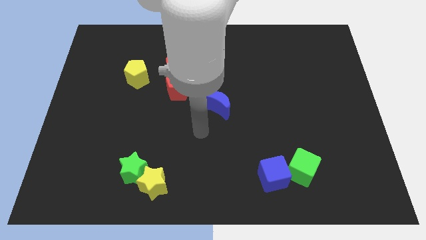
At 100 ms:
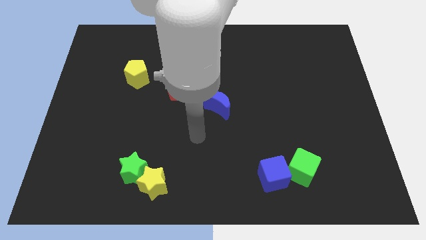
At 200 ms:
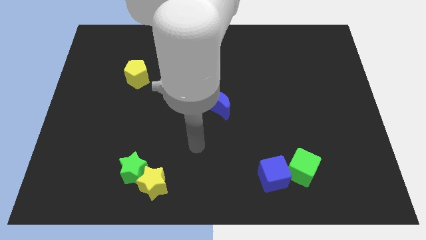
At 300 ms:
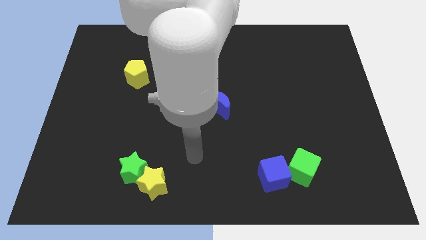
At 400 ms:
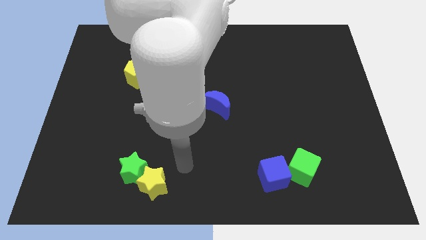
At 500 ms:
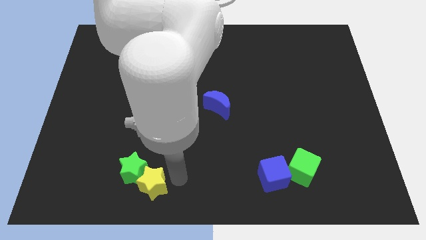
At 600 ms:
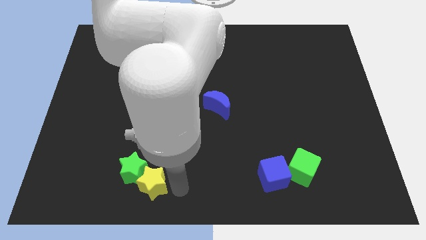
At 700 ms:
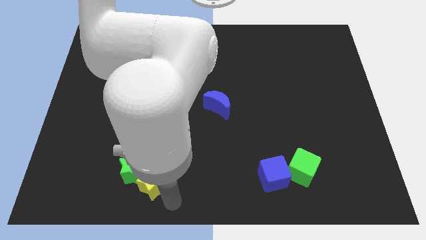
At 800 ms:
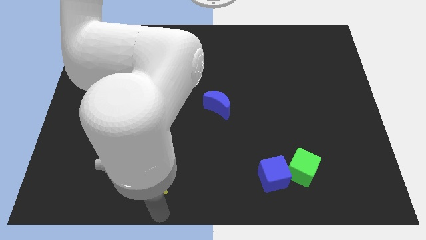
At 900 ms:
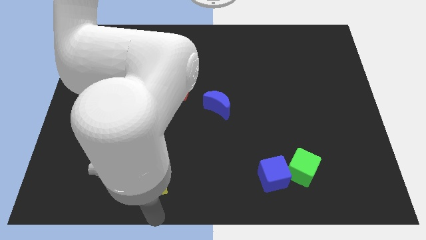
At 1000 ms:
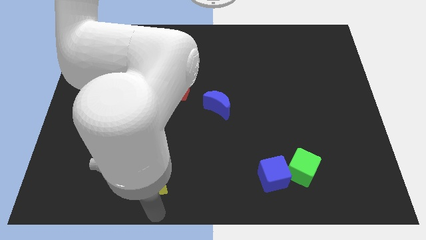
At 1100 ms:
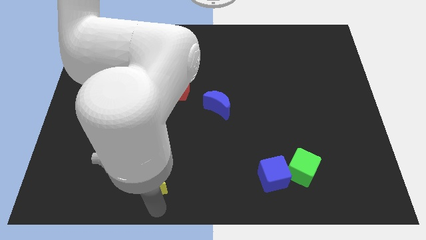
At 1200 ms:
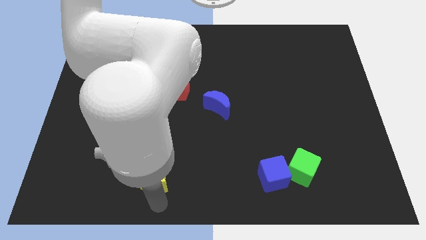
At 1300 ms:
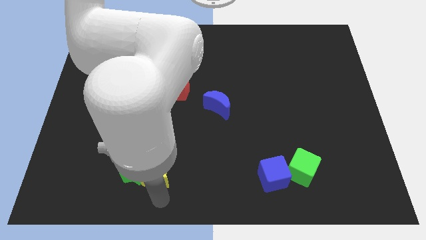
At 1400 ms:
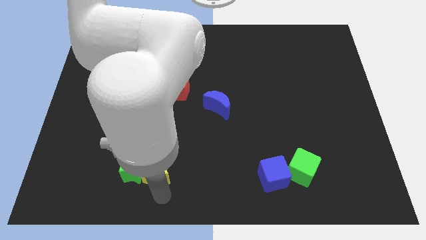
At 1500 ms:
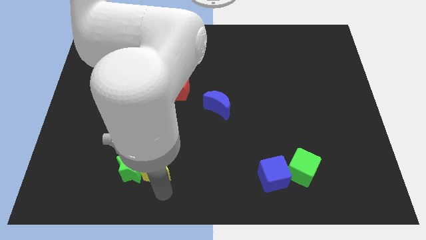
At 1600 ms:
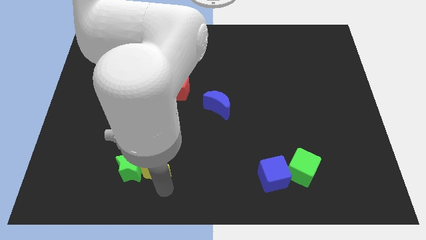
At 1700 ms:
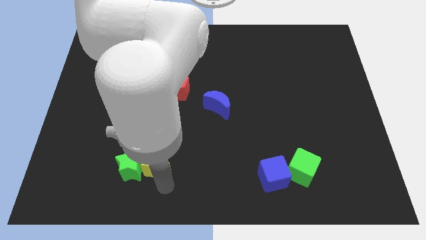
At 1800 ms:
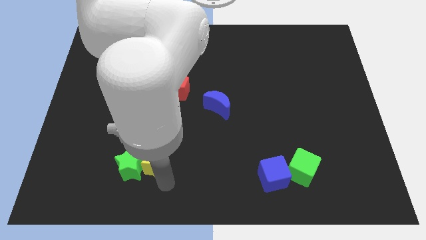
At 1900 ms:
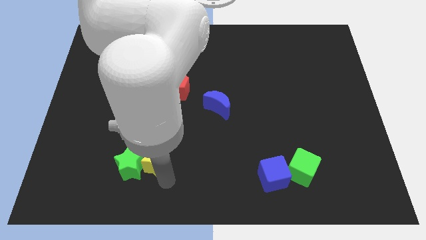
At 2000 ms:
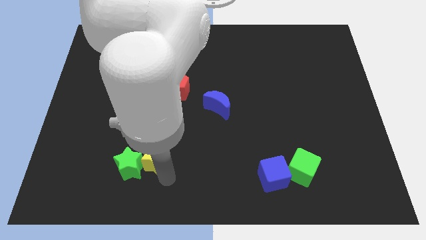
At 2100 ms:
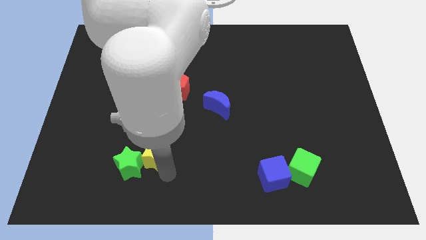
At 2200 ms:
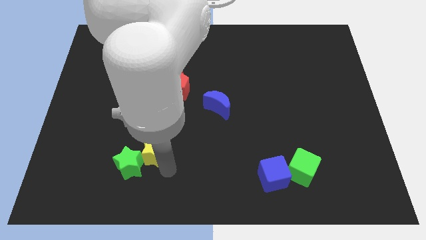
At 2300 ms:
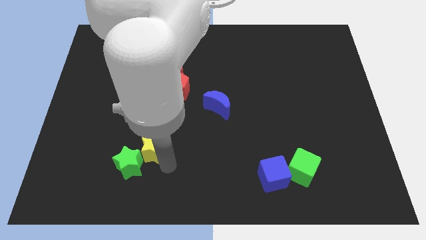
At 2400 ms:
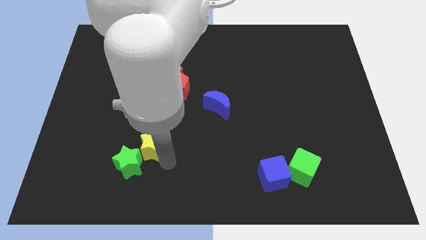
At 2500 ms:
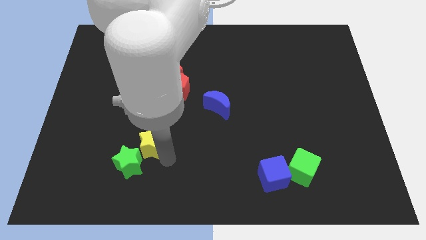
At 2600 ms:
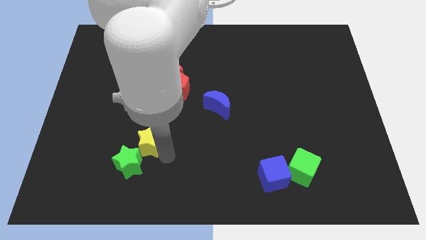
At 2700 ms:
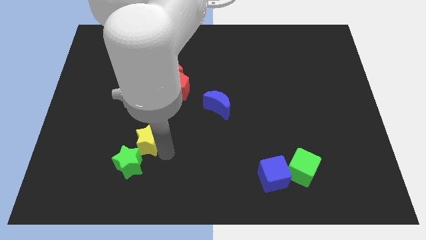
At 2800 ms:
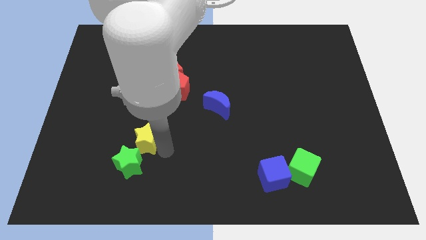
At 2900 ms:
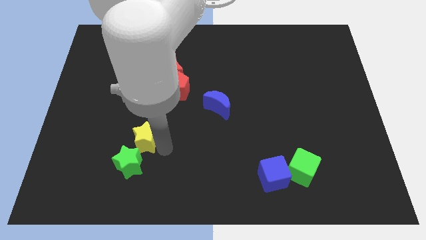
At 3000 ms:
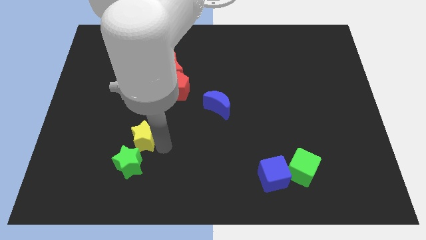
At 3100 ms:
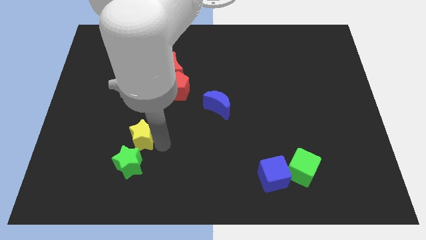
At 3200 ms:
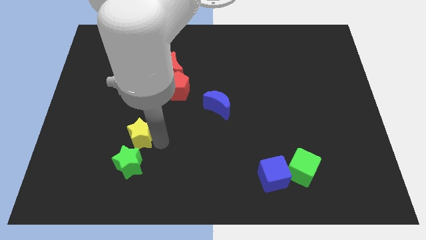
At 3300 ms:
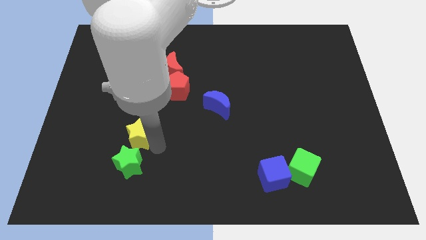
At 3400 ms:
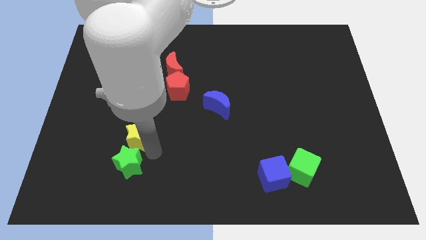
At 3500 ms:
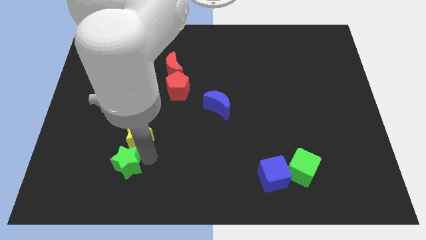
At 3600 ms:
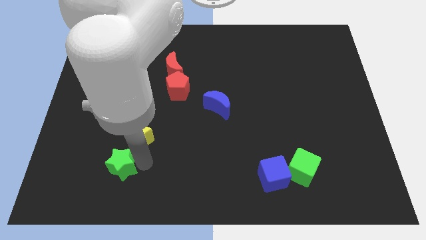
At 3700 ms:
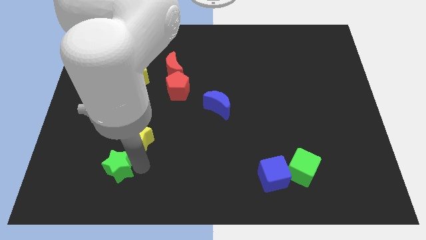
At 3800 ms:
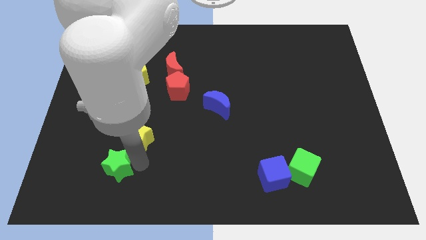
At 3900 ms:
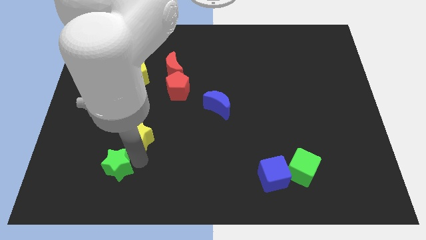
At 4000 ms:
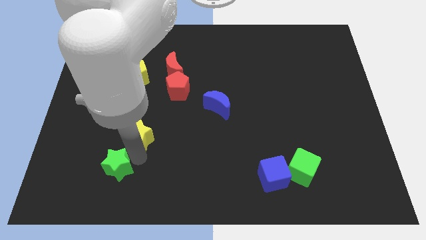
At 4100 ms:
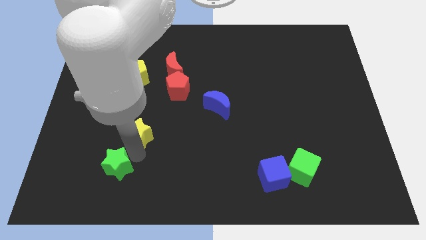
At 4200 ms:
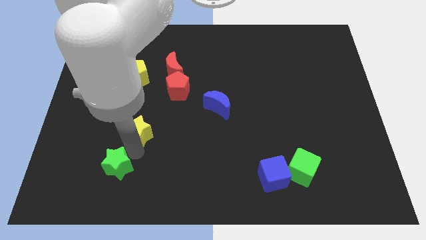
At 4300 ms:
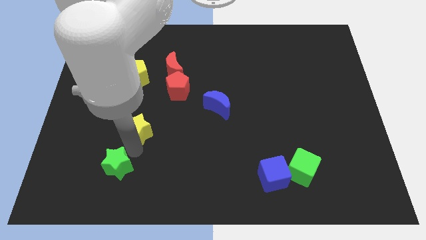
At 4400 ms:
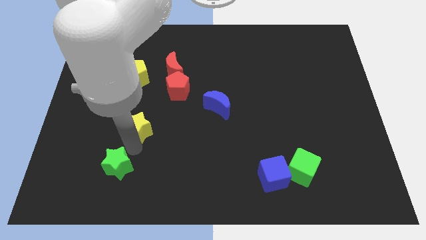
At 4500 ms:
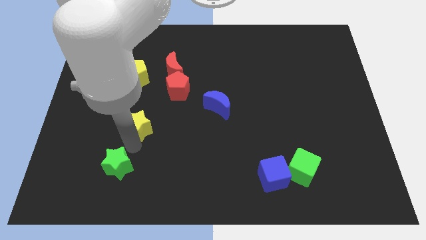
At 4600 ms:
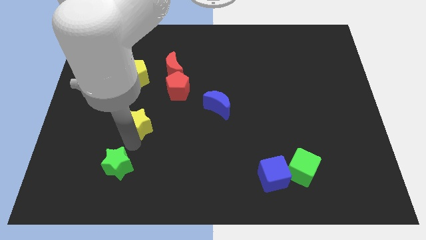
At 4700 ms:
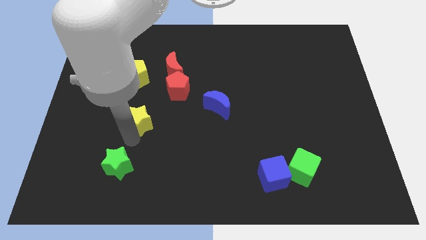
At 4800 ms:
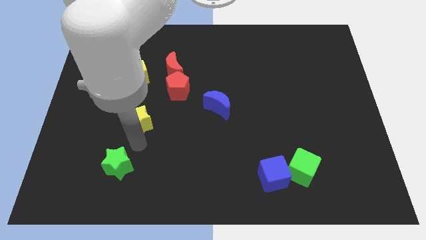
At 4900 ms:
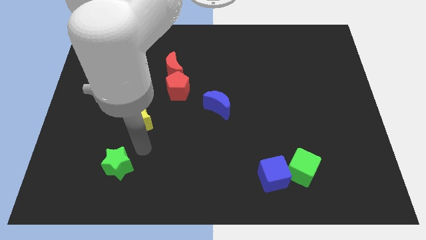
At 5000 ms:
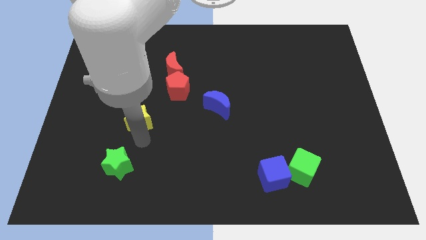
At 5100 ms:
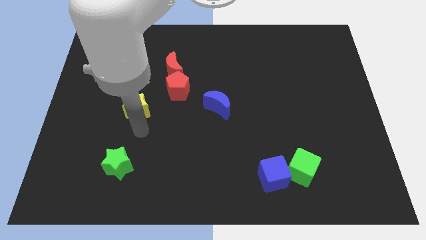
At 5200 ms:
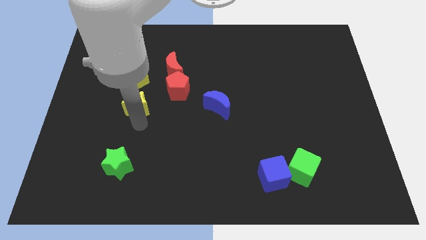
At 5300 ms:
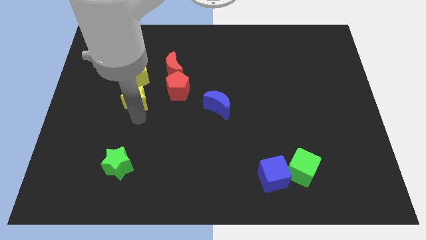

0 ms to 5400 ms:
slide the yellow star to the left of the red pentagon

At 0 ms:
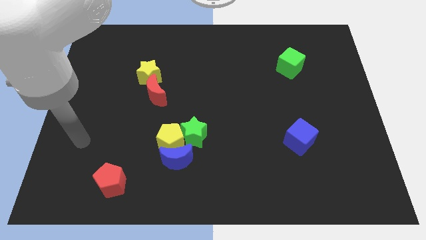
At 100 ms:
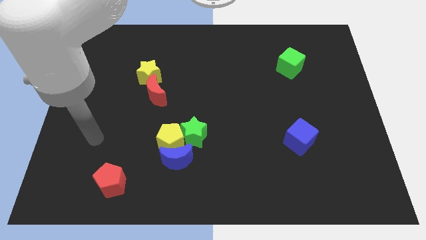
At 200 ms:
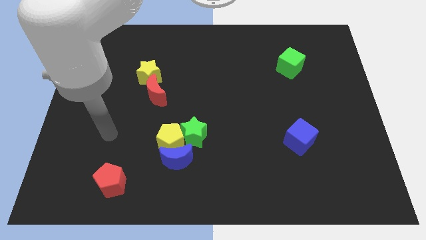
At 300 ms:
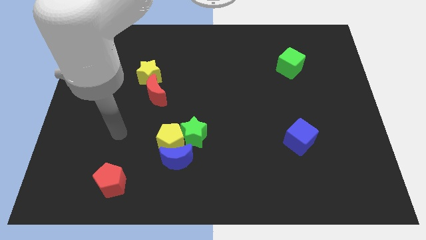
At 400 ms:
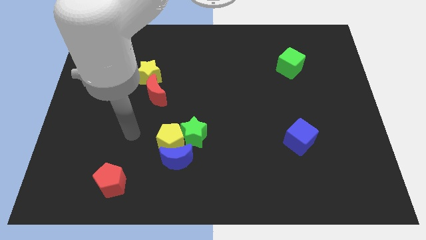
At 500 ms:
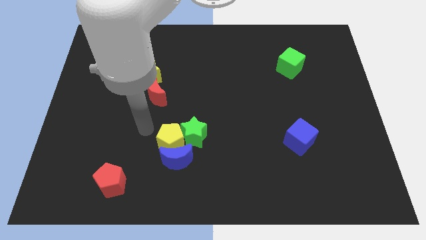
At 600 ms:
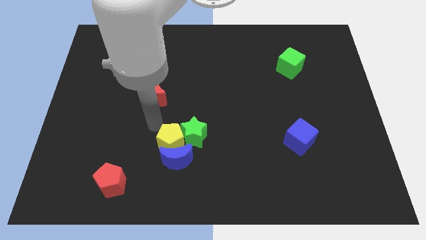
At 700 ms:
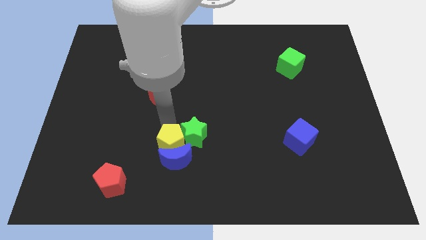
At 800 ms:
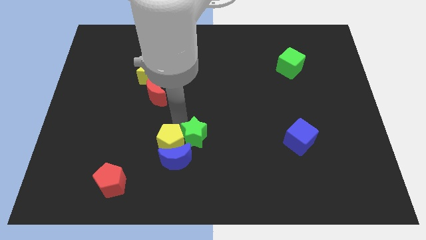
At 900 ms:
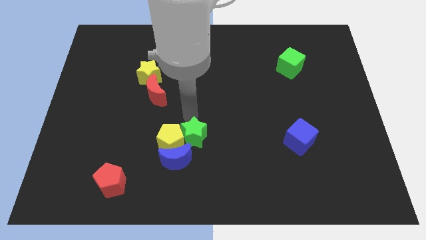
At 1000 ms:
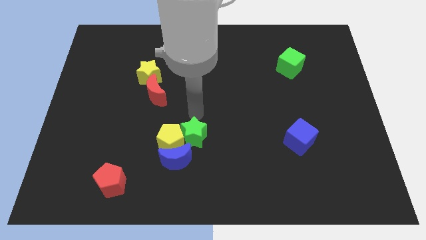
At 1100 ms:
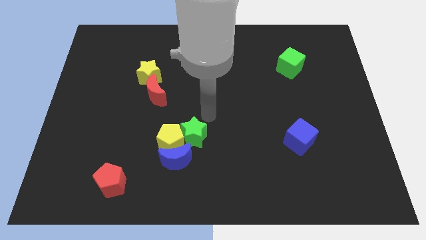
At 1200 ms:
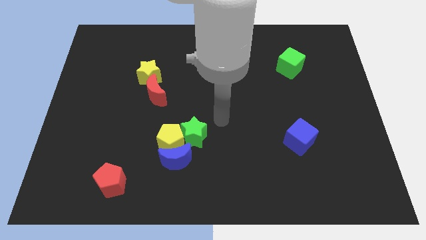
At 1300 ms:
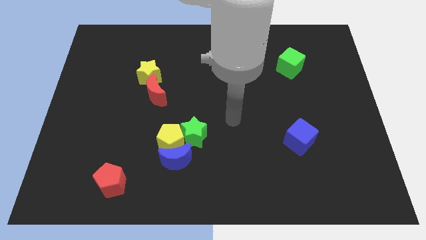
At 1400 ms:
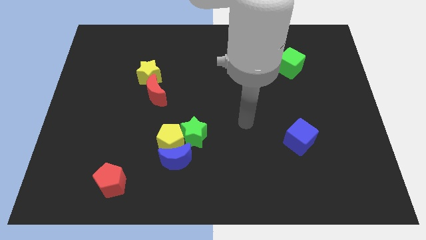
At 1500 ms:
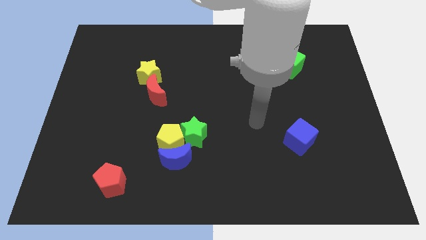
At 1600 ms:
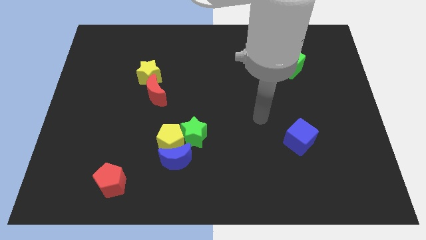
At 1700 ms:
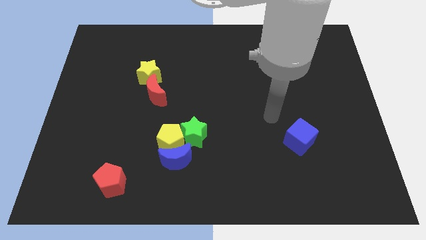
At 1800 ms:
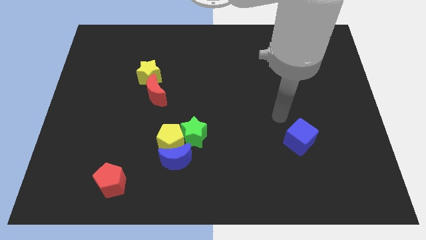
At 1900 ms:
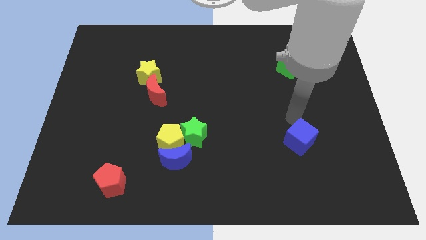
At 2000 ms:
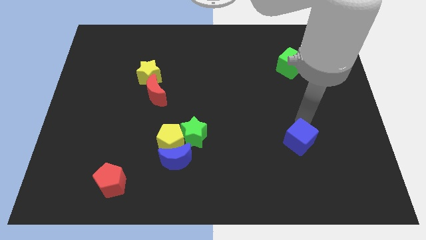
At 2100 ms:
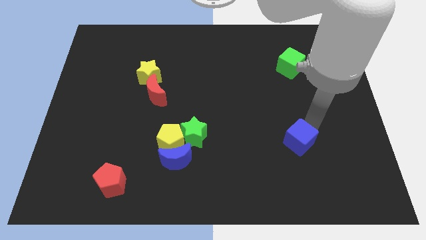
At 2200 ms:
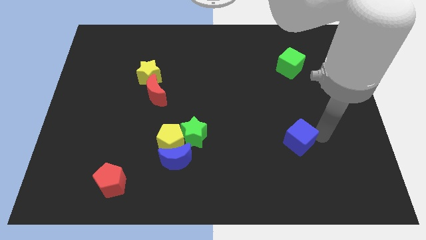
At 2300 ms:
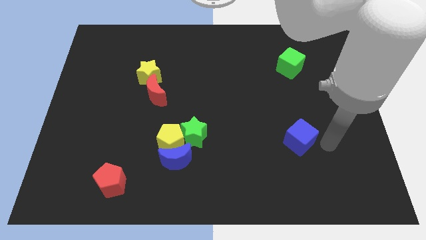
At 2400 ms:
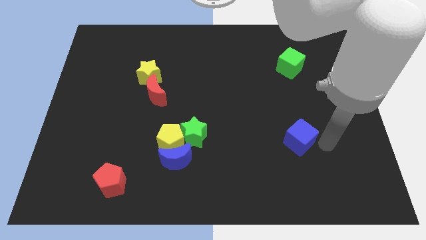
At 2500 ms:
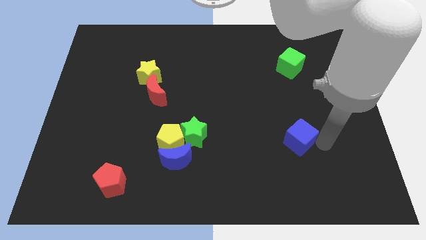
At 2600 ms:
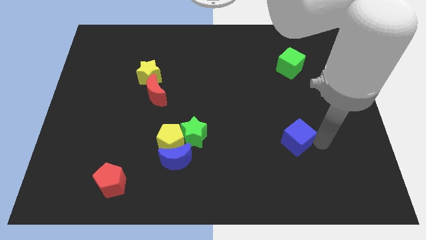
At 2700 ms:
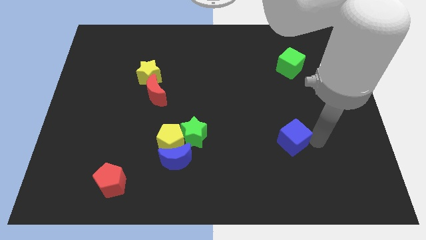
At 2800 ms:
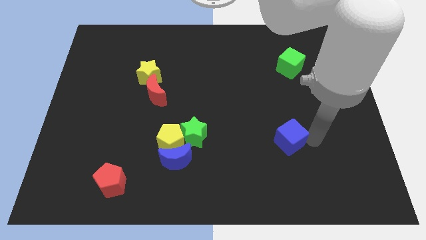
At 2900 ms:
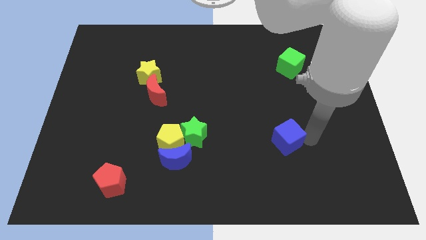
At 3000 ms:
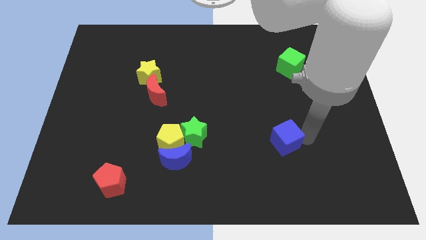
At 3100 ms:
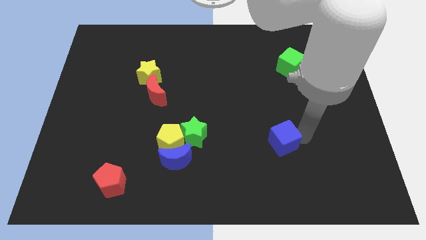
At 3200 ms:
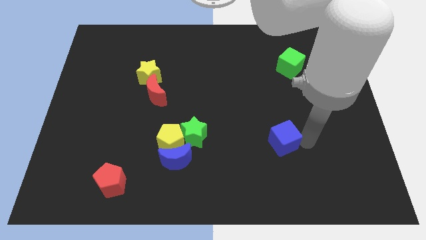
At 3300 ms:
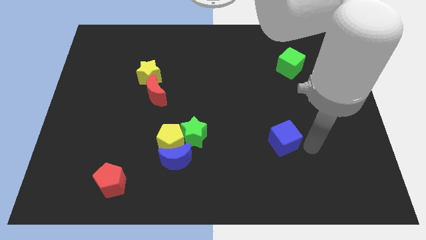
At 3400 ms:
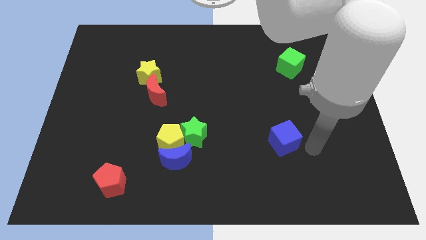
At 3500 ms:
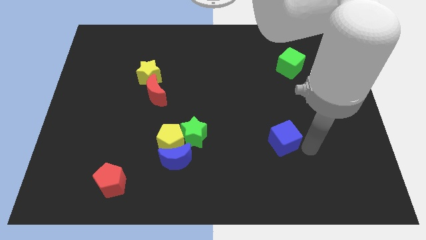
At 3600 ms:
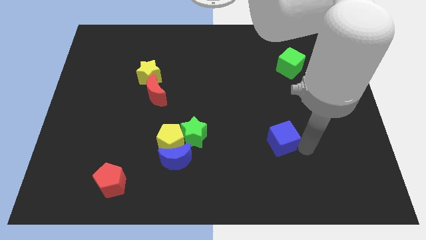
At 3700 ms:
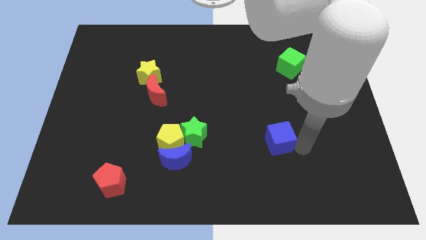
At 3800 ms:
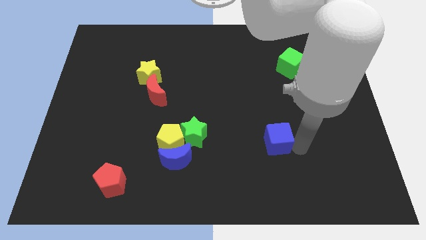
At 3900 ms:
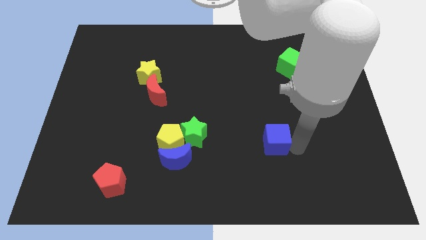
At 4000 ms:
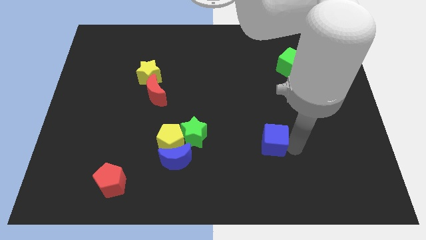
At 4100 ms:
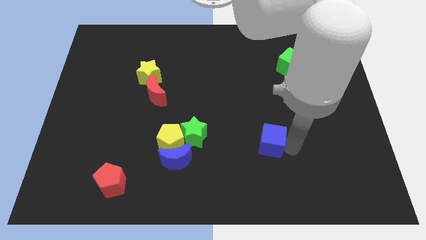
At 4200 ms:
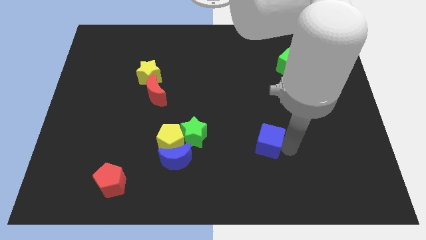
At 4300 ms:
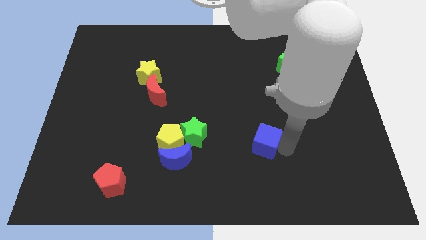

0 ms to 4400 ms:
push the blue cube to the right of the green star
